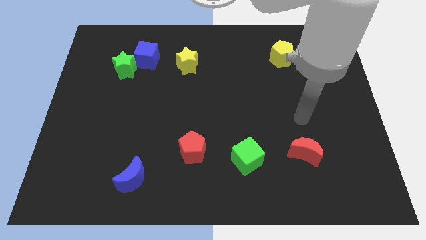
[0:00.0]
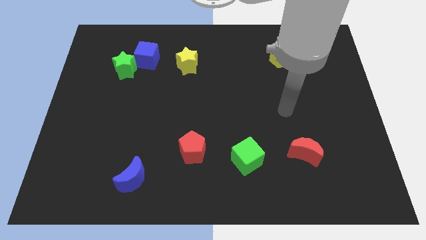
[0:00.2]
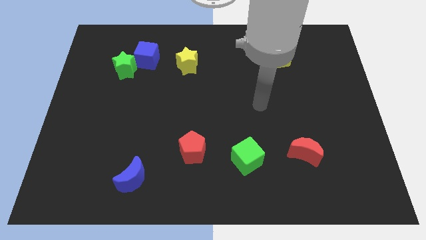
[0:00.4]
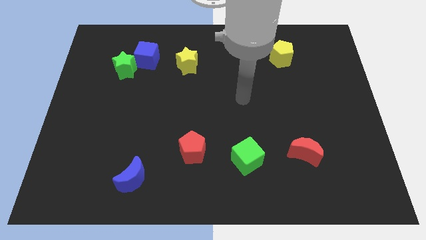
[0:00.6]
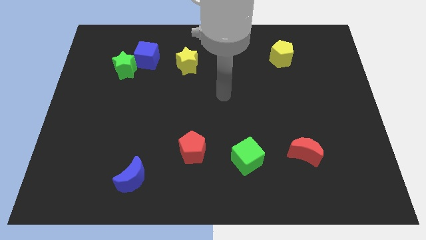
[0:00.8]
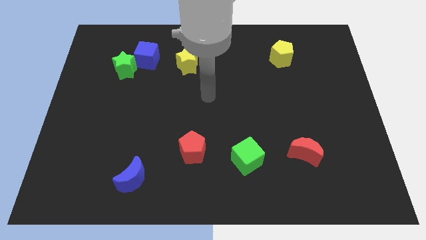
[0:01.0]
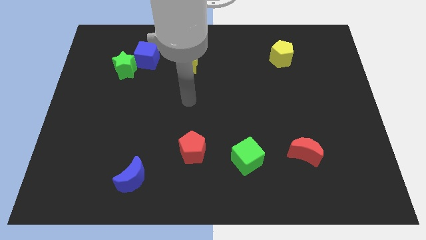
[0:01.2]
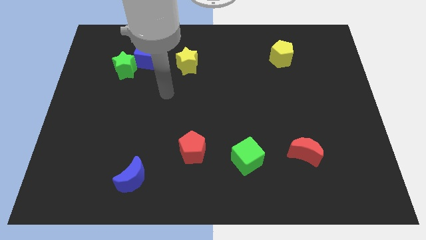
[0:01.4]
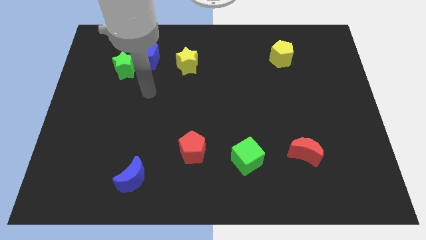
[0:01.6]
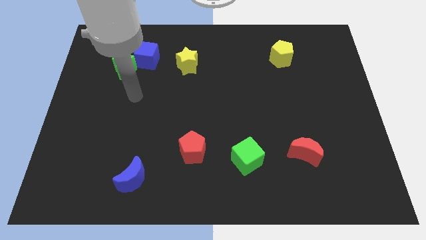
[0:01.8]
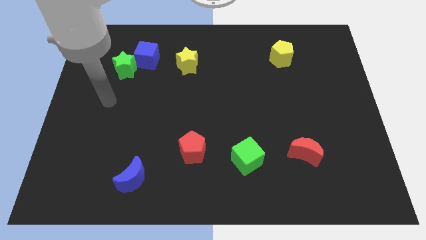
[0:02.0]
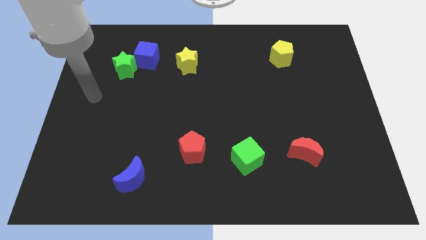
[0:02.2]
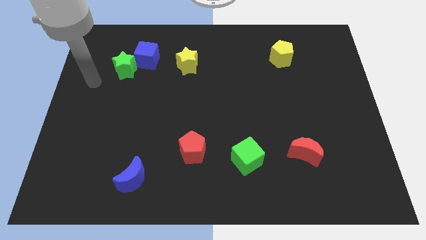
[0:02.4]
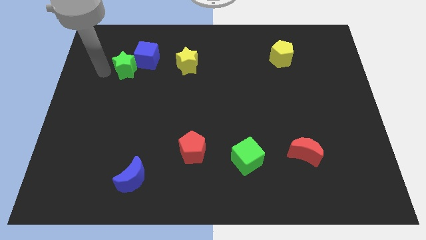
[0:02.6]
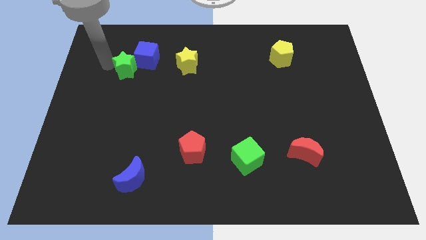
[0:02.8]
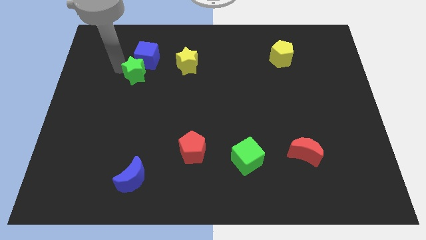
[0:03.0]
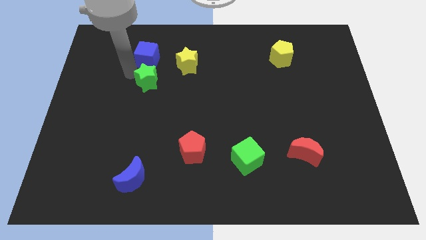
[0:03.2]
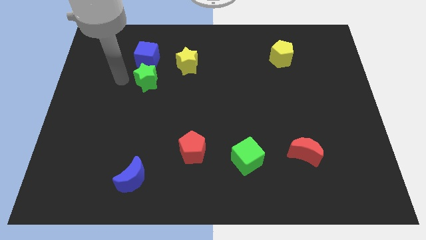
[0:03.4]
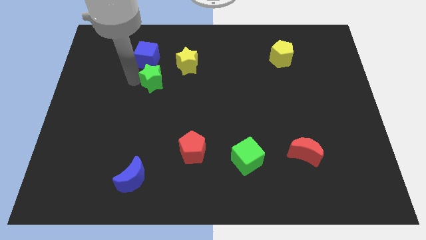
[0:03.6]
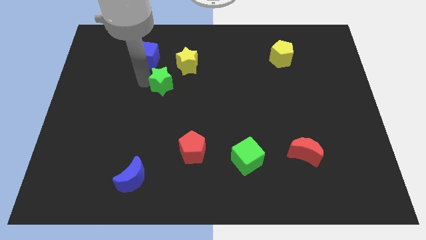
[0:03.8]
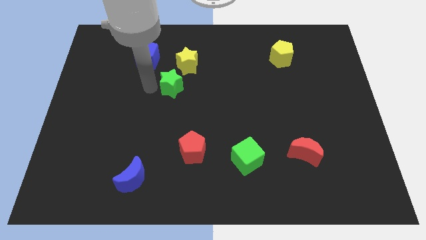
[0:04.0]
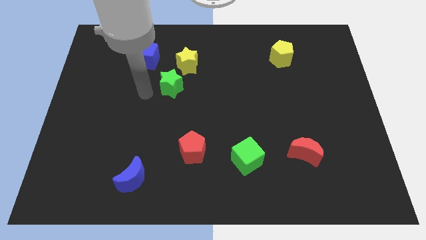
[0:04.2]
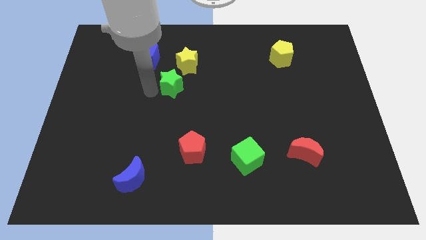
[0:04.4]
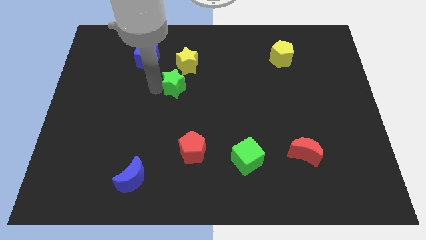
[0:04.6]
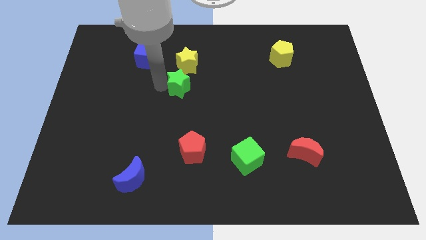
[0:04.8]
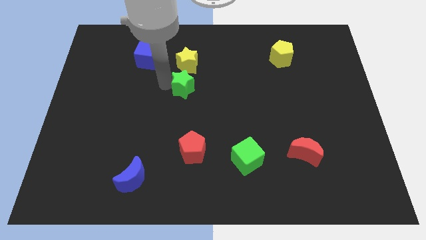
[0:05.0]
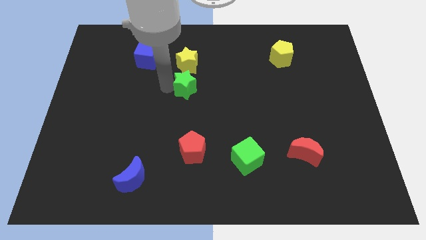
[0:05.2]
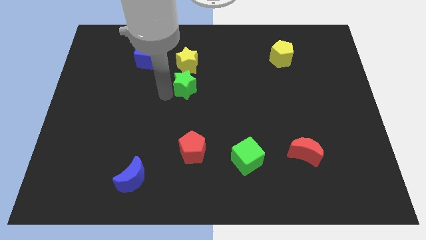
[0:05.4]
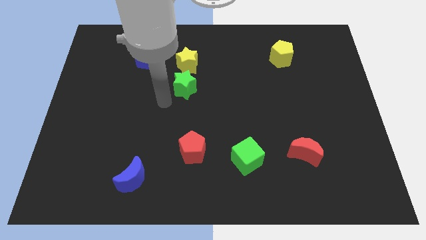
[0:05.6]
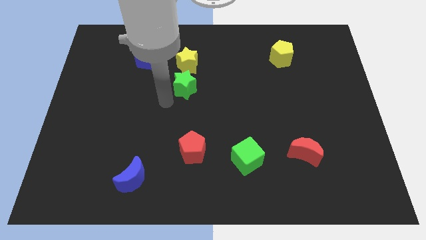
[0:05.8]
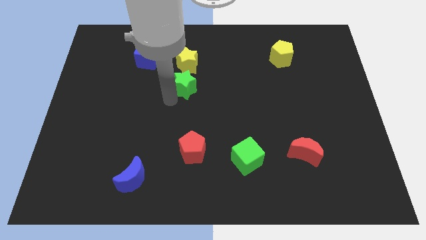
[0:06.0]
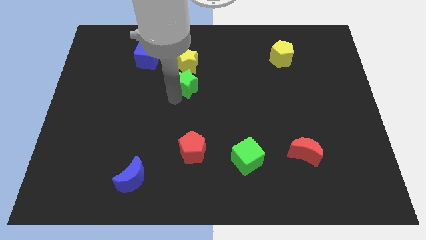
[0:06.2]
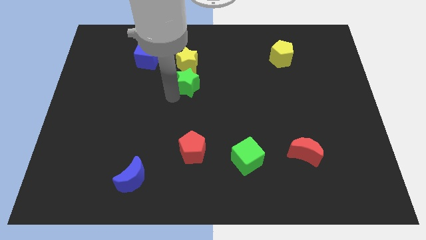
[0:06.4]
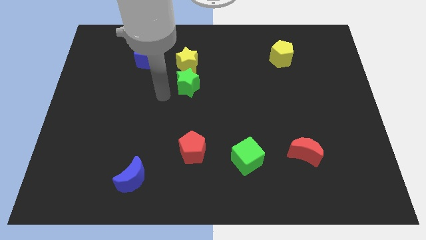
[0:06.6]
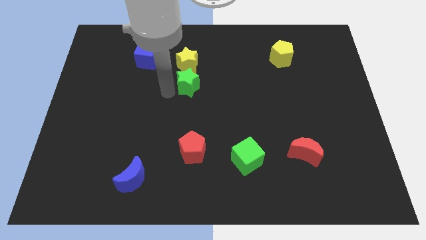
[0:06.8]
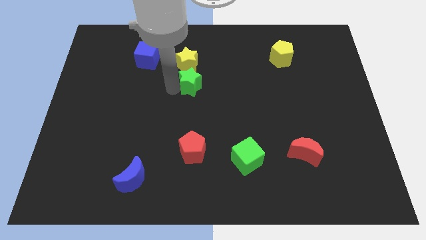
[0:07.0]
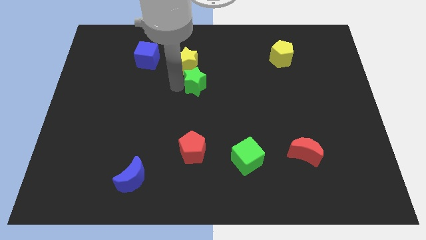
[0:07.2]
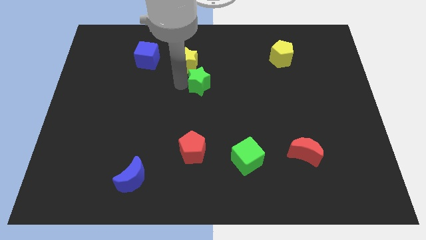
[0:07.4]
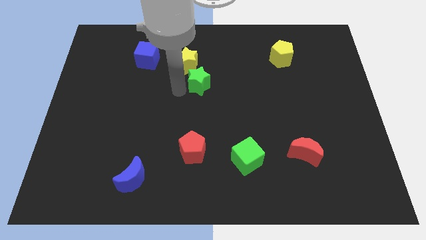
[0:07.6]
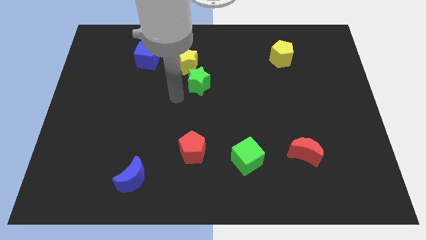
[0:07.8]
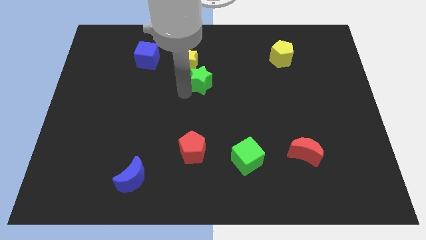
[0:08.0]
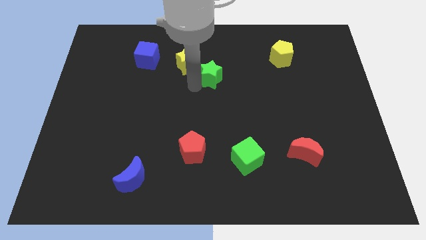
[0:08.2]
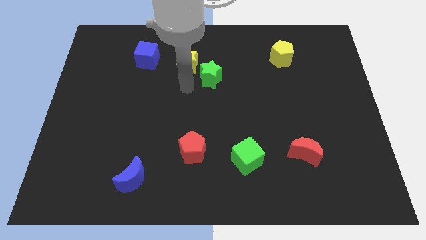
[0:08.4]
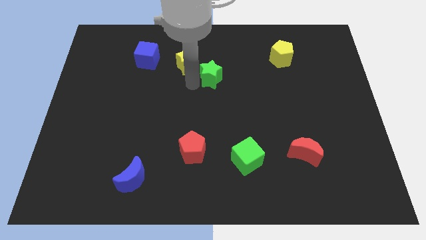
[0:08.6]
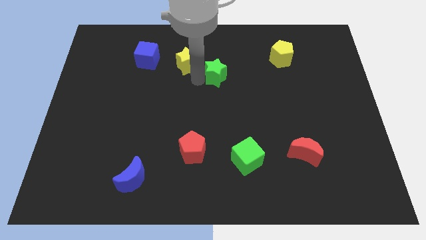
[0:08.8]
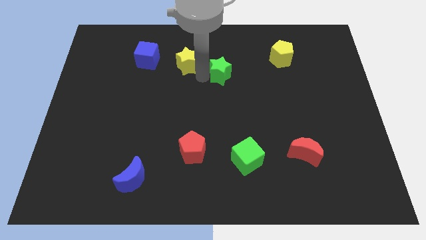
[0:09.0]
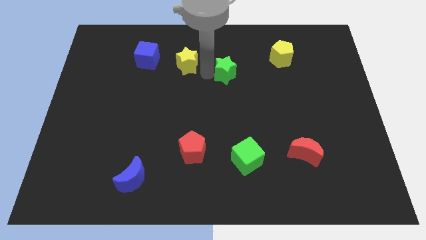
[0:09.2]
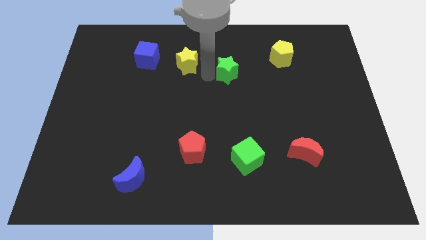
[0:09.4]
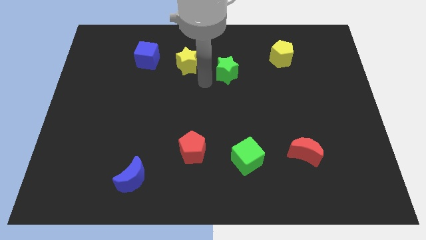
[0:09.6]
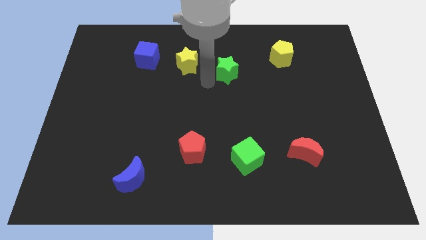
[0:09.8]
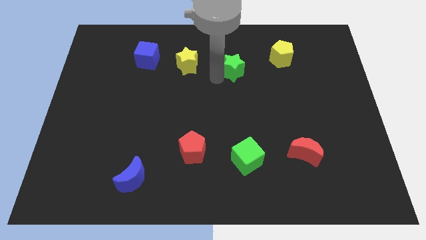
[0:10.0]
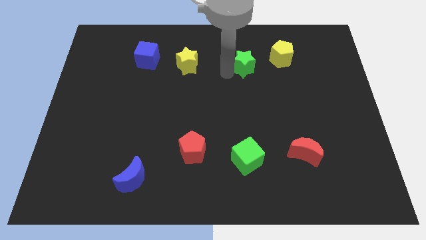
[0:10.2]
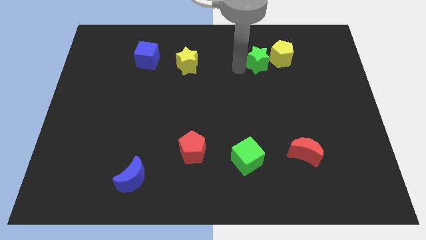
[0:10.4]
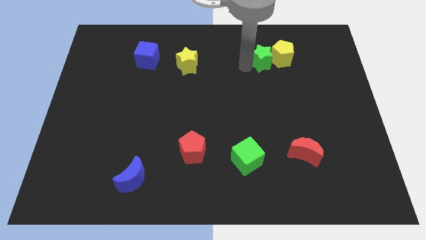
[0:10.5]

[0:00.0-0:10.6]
put the green star close to the yellow pentagon

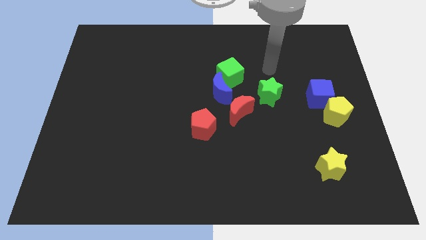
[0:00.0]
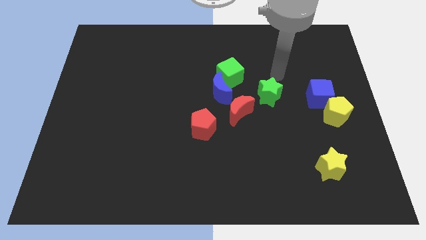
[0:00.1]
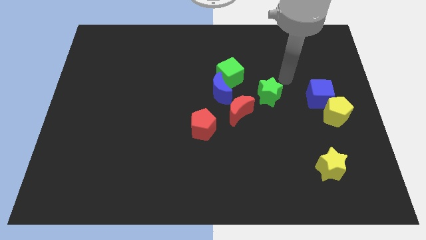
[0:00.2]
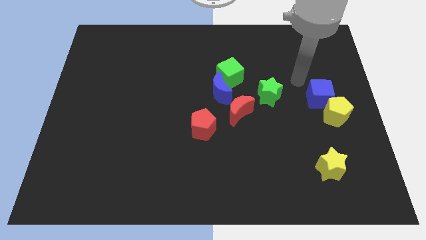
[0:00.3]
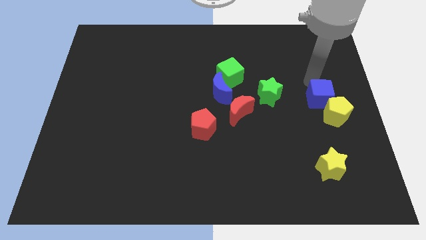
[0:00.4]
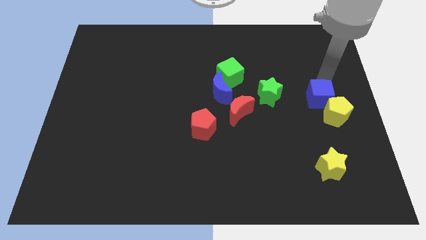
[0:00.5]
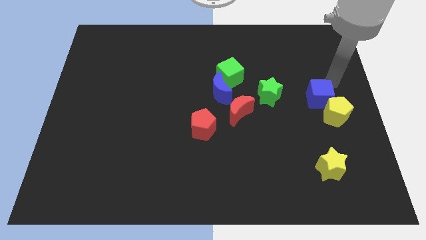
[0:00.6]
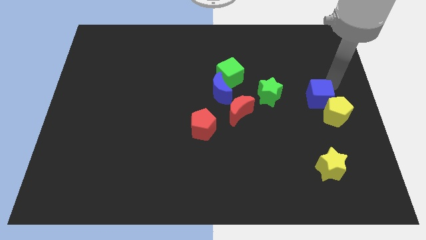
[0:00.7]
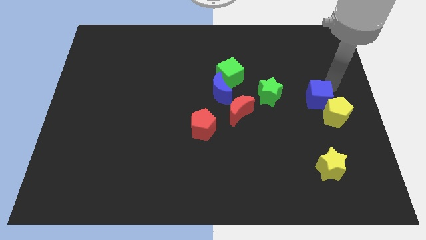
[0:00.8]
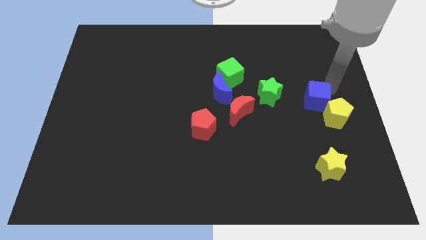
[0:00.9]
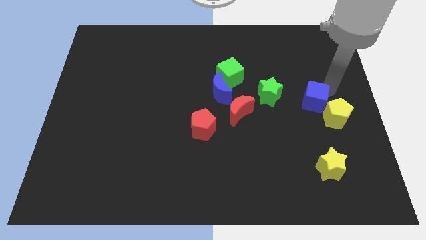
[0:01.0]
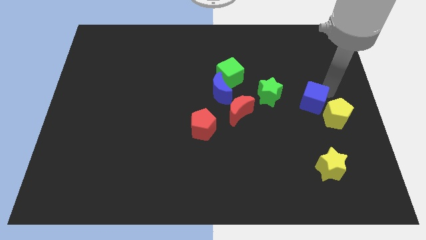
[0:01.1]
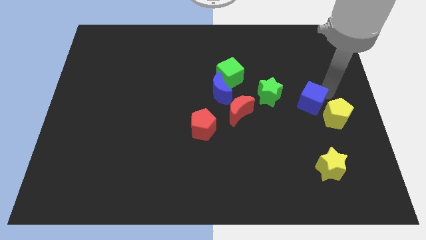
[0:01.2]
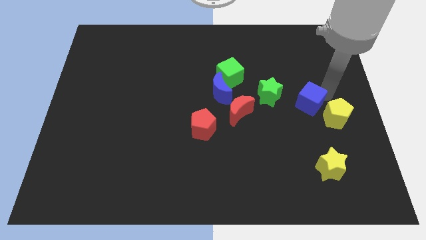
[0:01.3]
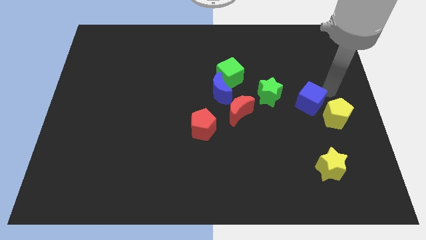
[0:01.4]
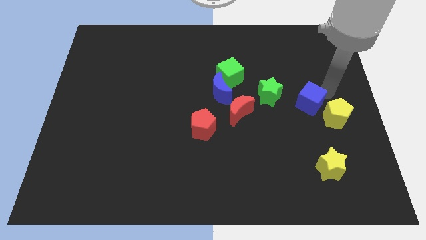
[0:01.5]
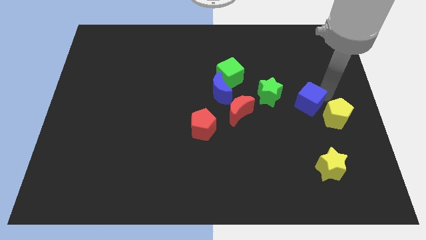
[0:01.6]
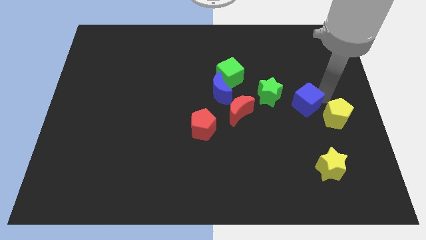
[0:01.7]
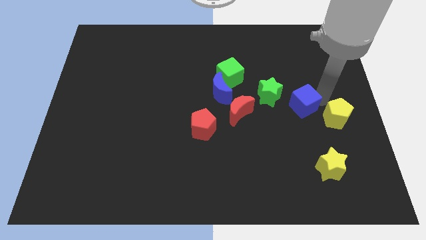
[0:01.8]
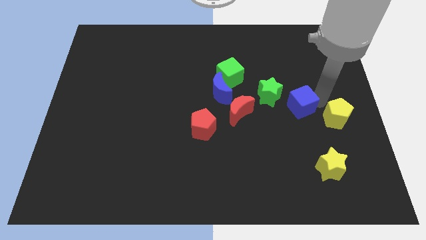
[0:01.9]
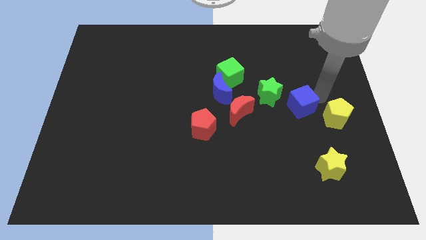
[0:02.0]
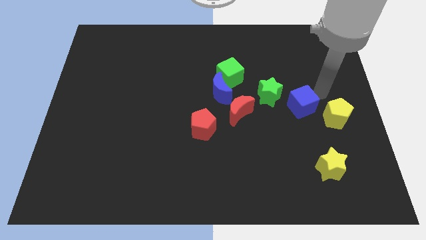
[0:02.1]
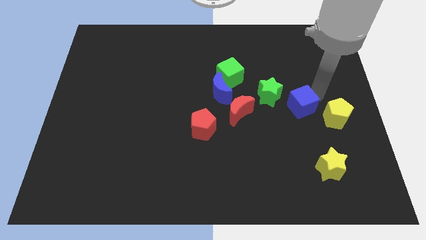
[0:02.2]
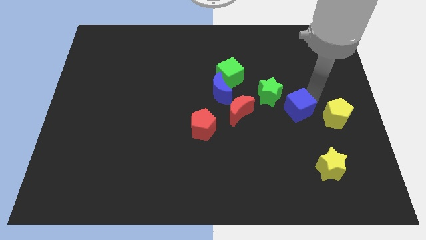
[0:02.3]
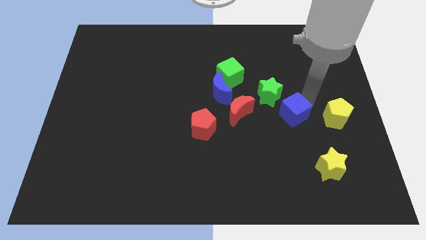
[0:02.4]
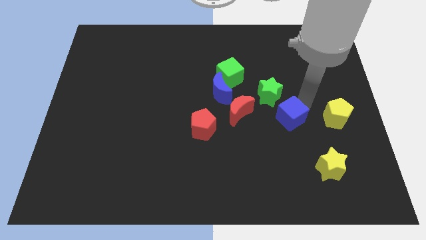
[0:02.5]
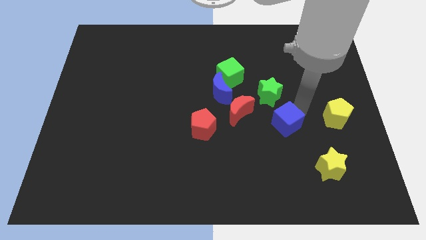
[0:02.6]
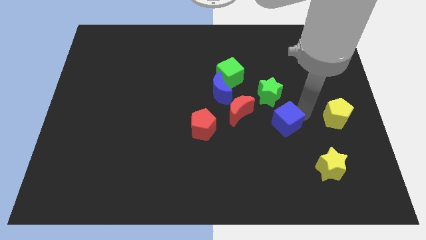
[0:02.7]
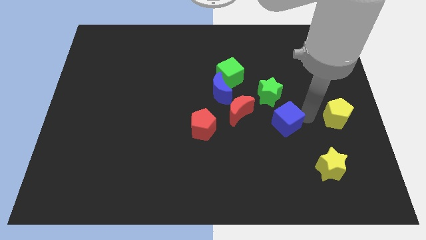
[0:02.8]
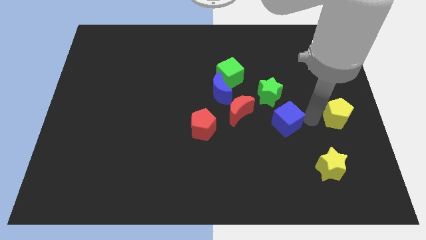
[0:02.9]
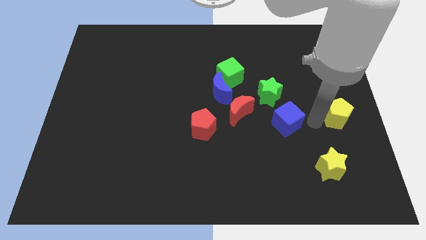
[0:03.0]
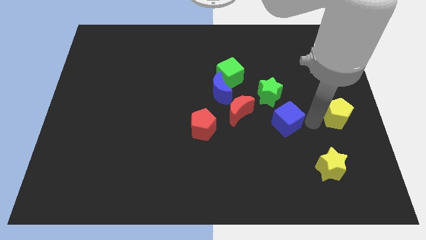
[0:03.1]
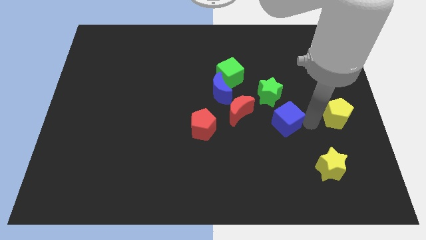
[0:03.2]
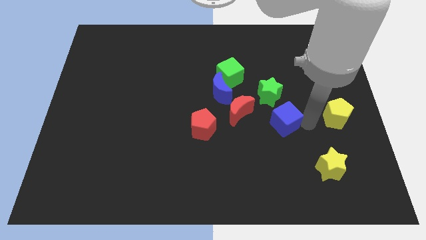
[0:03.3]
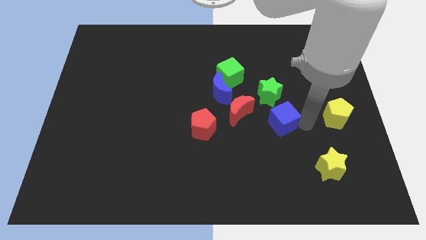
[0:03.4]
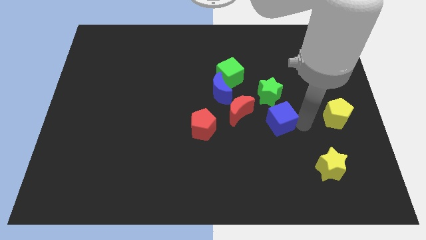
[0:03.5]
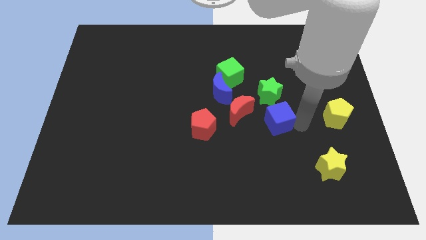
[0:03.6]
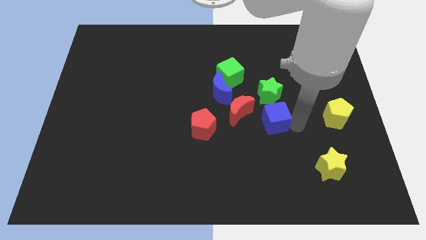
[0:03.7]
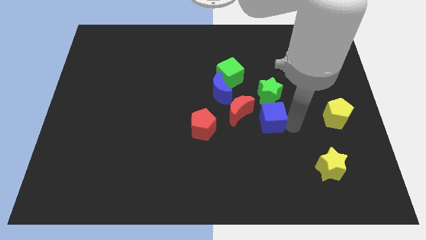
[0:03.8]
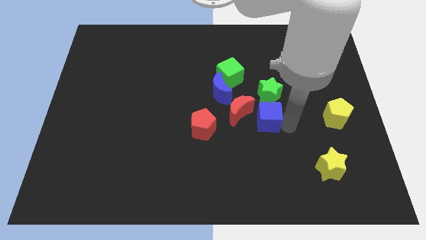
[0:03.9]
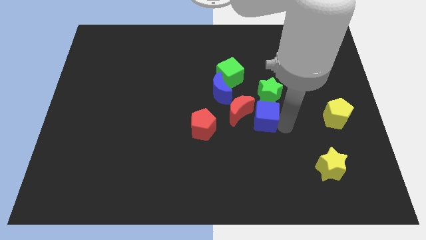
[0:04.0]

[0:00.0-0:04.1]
push the blue cube to the red moon
